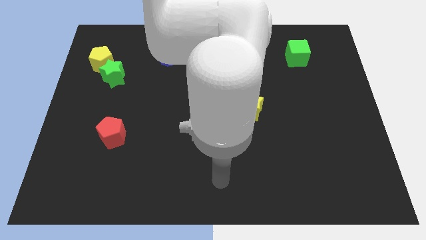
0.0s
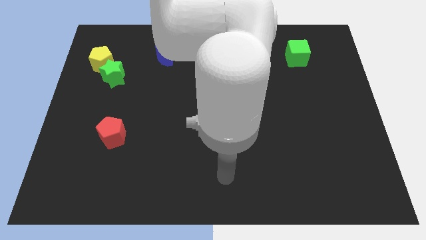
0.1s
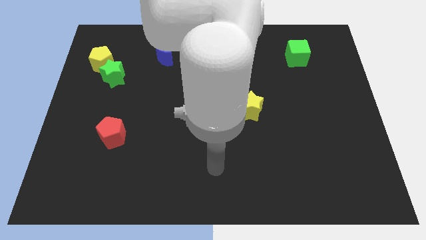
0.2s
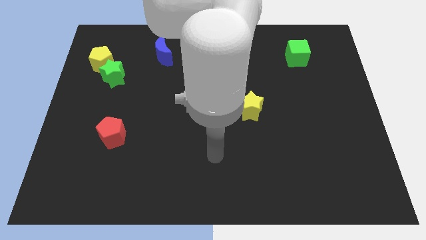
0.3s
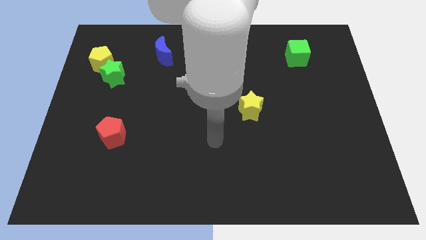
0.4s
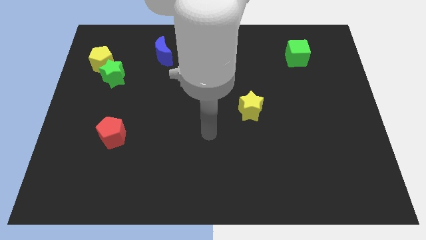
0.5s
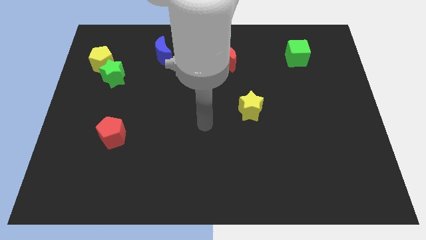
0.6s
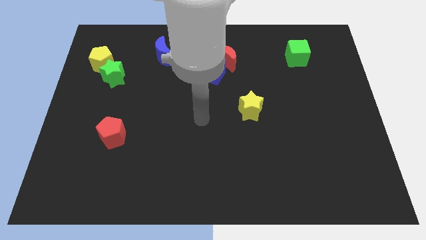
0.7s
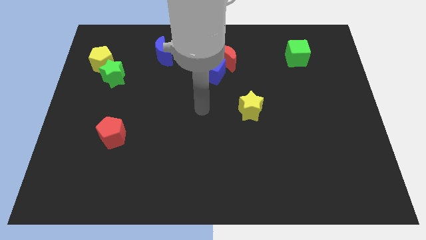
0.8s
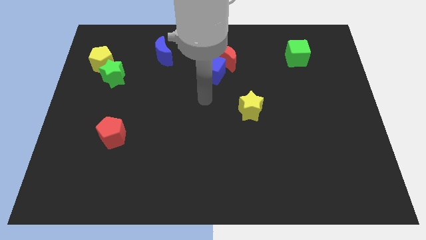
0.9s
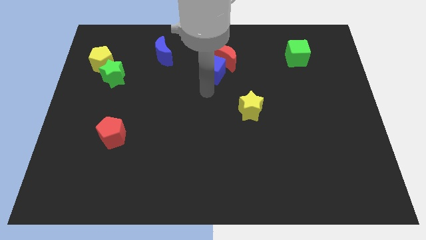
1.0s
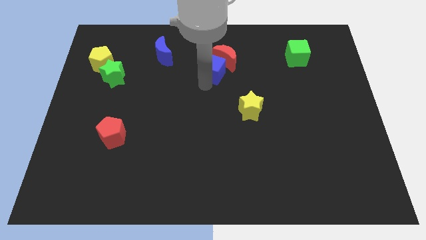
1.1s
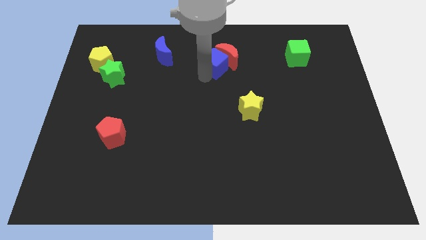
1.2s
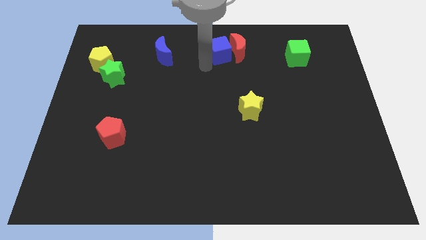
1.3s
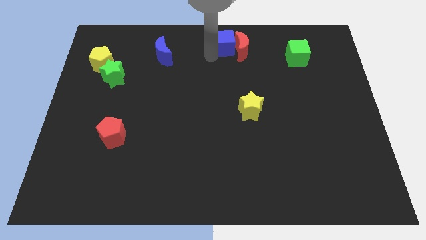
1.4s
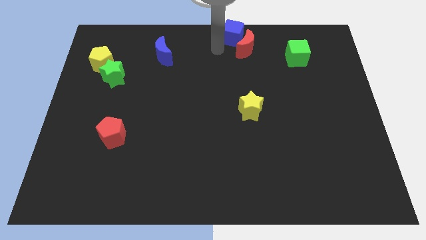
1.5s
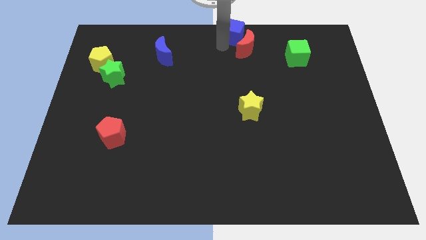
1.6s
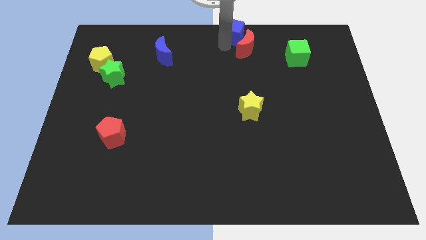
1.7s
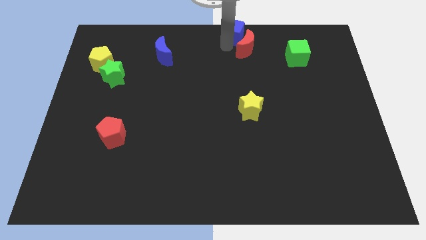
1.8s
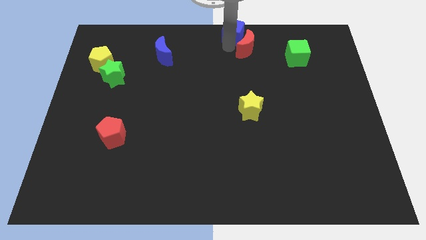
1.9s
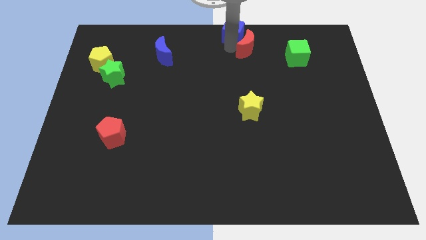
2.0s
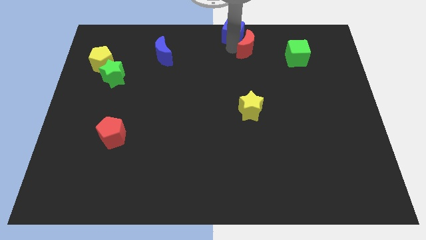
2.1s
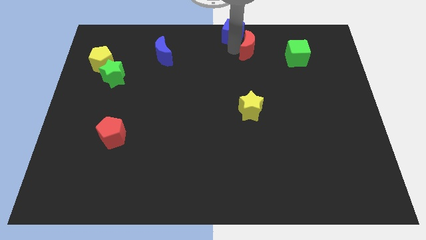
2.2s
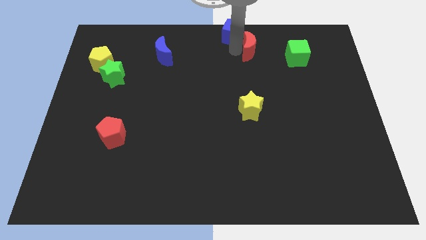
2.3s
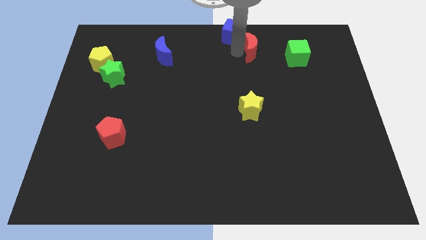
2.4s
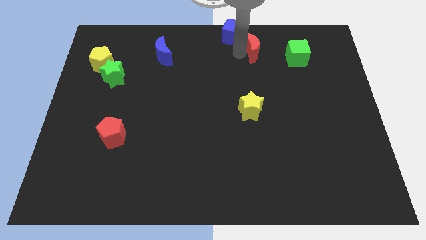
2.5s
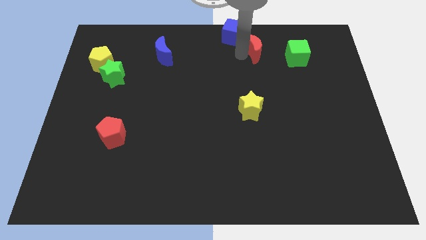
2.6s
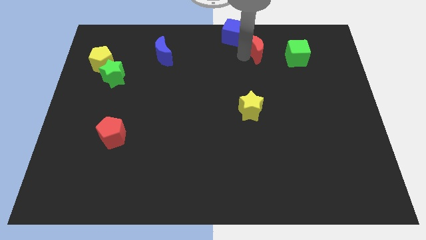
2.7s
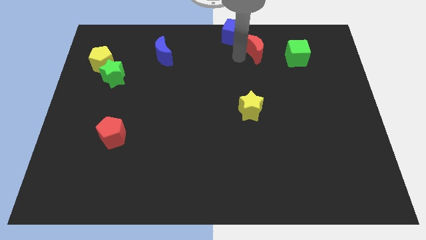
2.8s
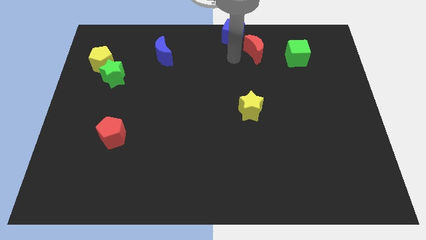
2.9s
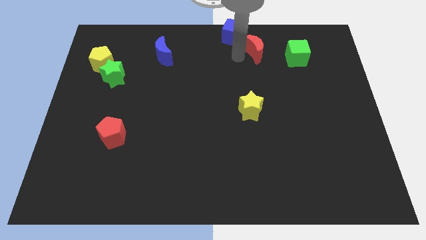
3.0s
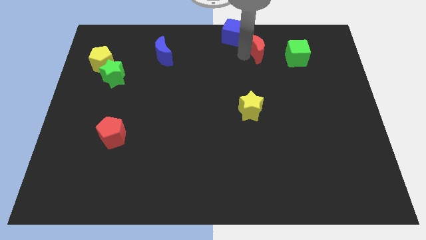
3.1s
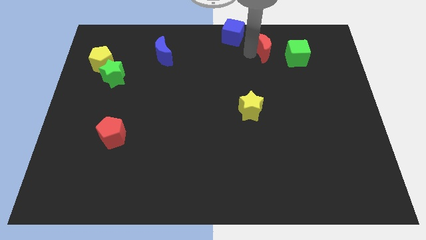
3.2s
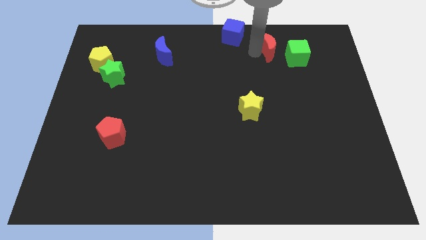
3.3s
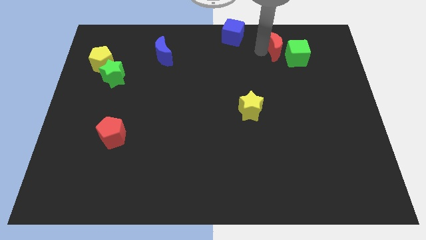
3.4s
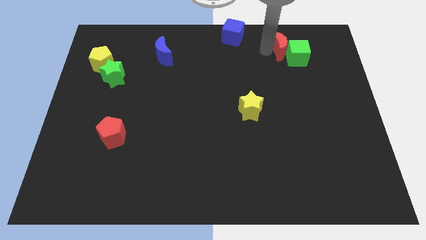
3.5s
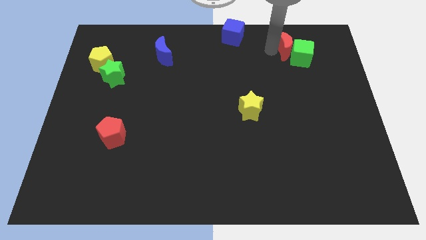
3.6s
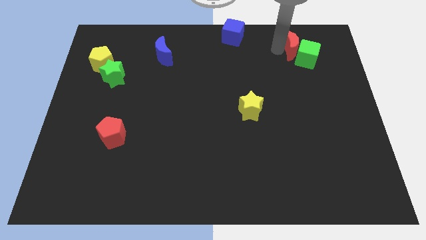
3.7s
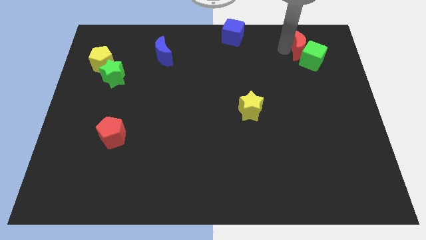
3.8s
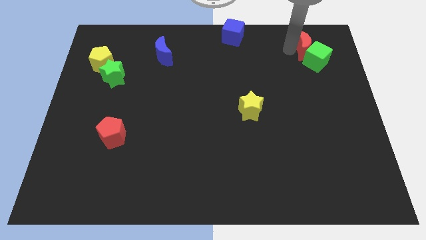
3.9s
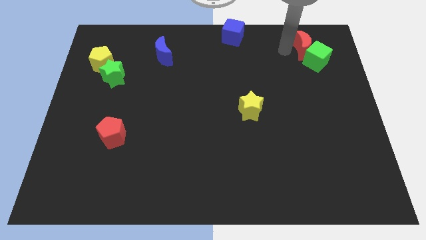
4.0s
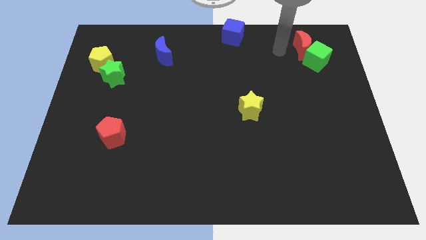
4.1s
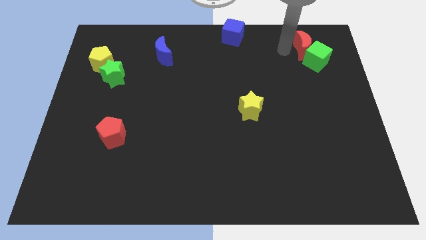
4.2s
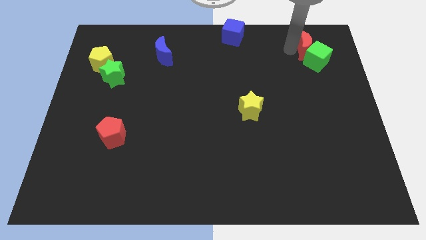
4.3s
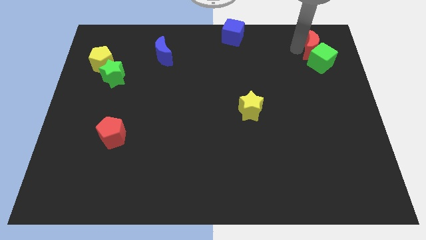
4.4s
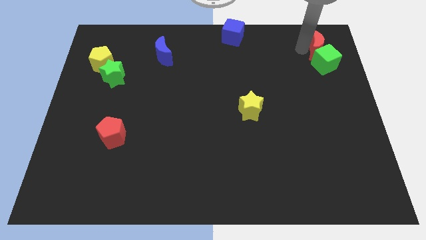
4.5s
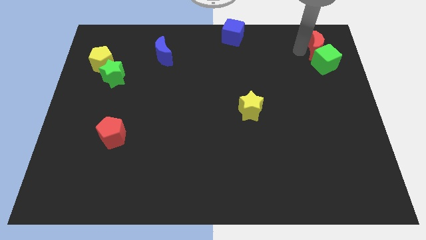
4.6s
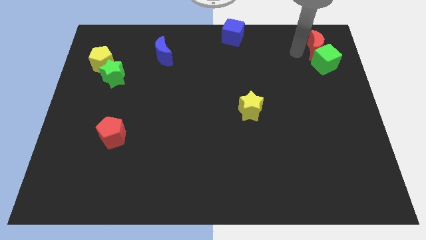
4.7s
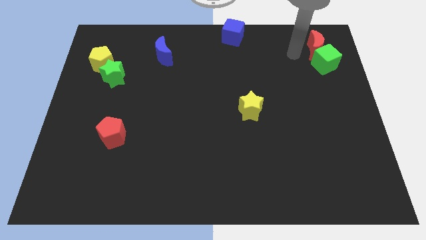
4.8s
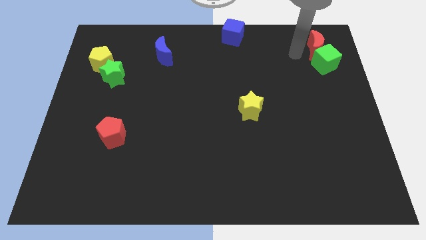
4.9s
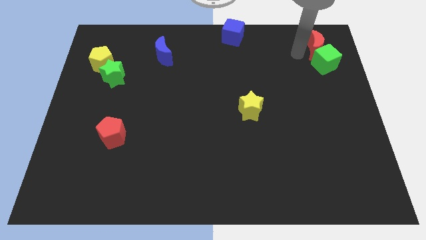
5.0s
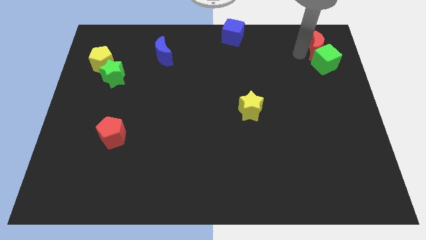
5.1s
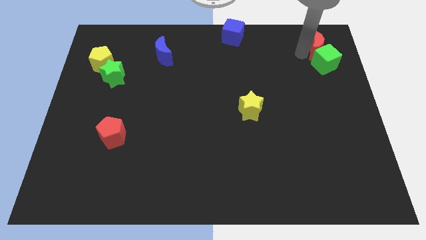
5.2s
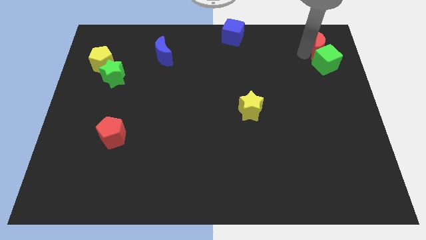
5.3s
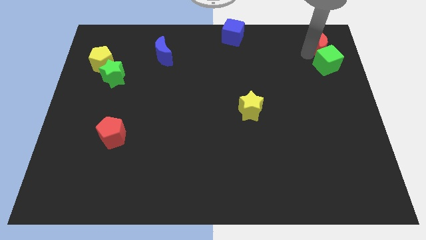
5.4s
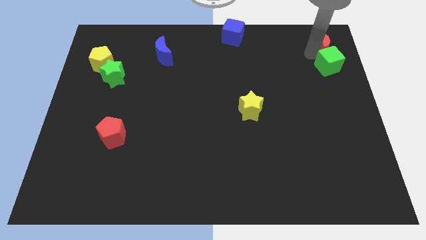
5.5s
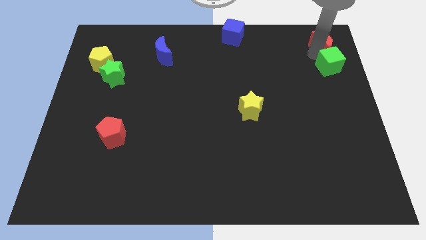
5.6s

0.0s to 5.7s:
move the red moon to the top right
